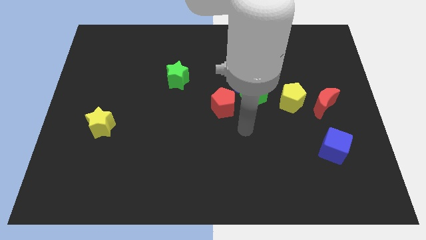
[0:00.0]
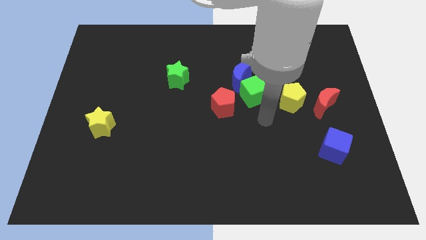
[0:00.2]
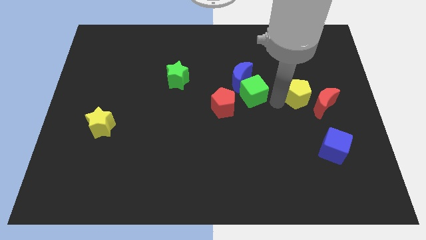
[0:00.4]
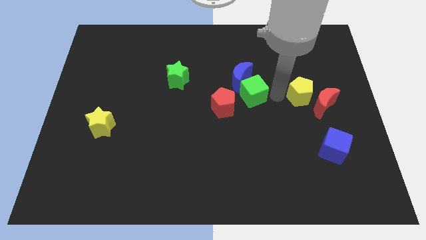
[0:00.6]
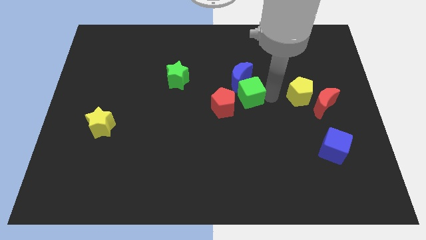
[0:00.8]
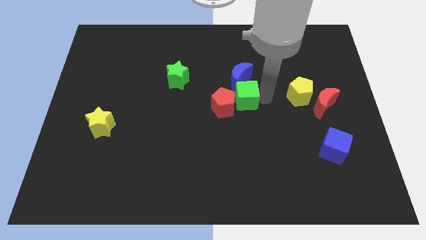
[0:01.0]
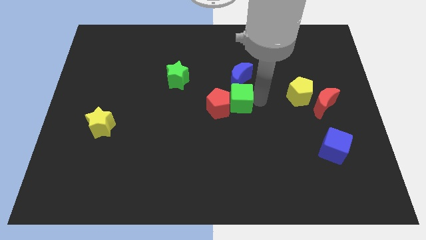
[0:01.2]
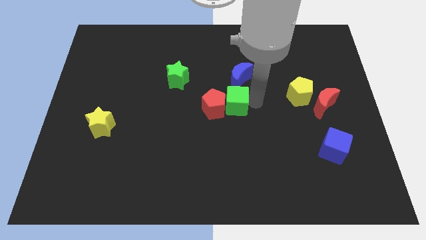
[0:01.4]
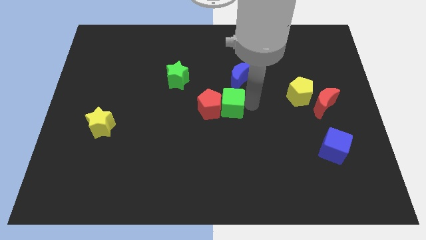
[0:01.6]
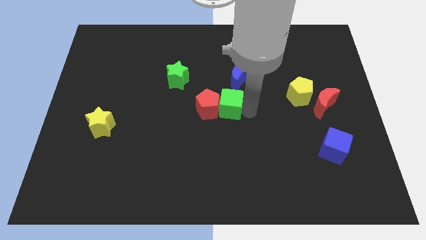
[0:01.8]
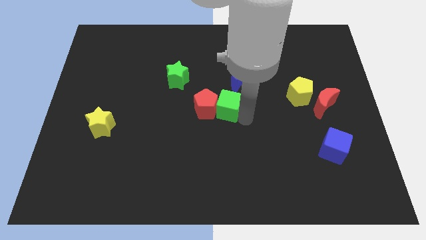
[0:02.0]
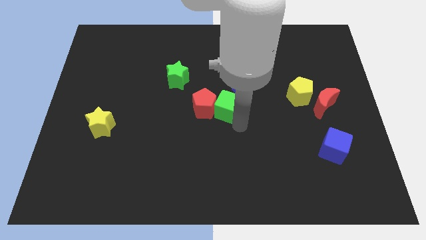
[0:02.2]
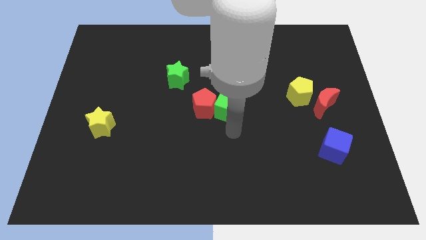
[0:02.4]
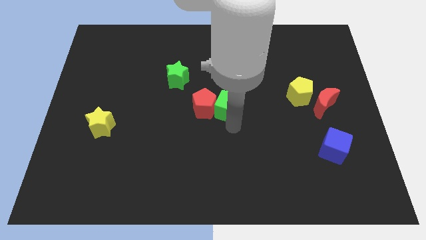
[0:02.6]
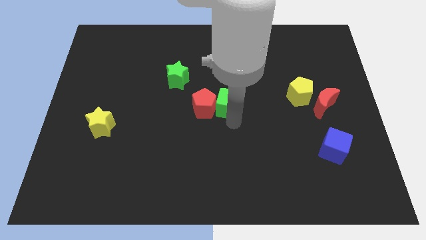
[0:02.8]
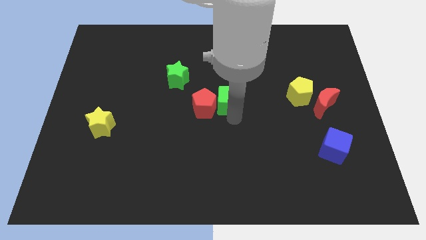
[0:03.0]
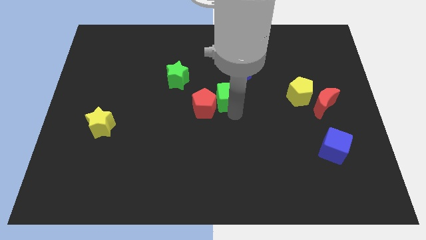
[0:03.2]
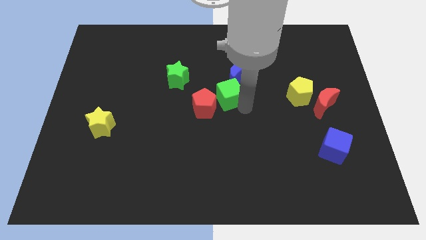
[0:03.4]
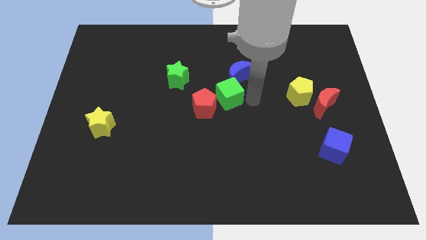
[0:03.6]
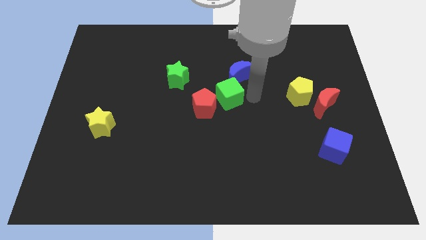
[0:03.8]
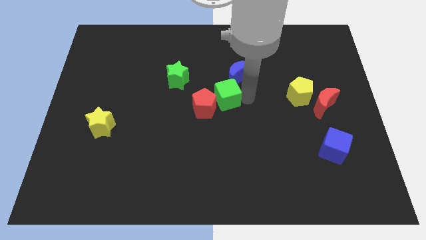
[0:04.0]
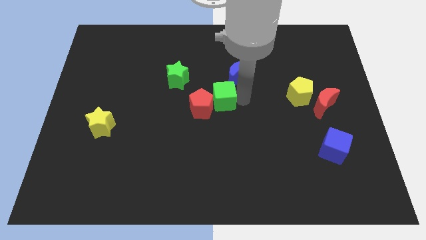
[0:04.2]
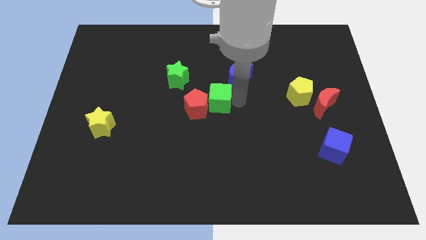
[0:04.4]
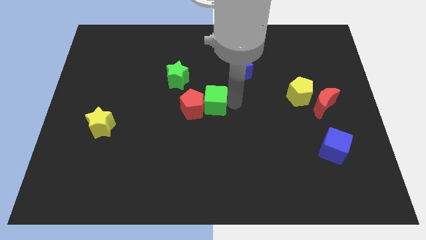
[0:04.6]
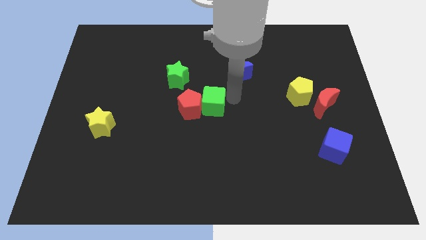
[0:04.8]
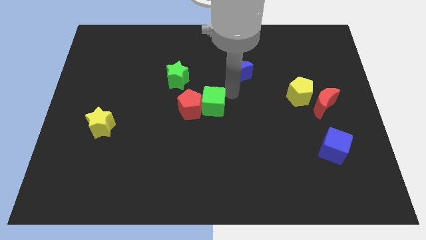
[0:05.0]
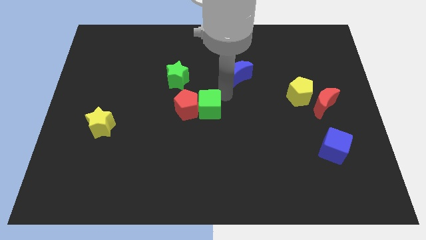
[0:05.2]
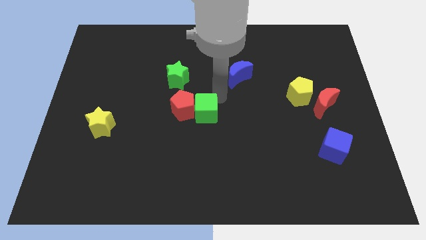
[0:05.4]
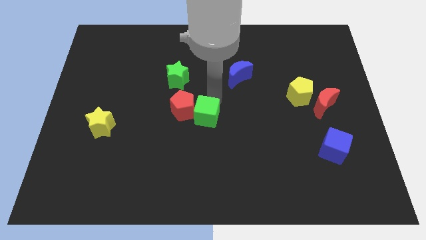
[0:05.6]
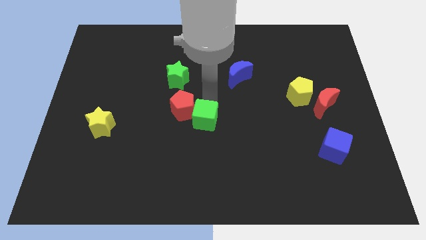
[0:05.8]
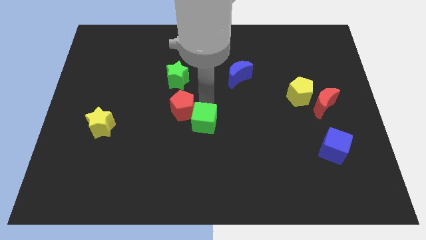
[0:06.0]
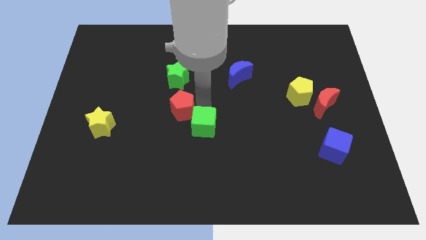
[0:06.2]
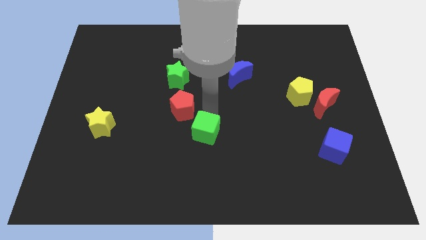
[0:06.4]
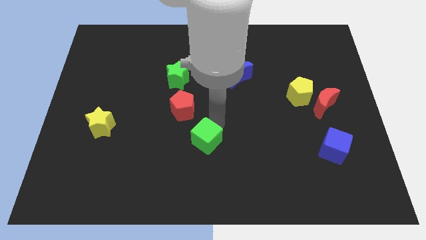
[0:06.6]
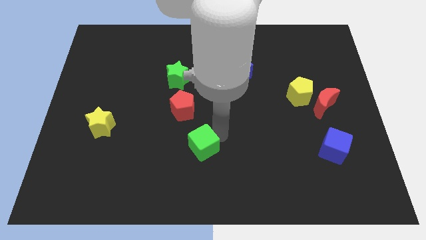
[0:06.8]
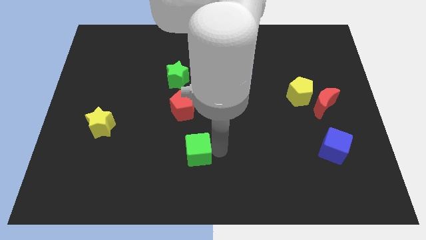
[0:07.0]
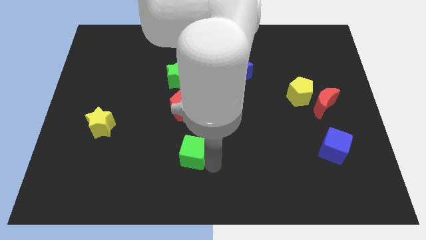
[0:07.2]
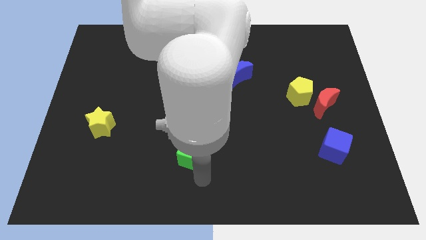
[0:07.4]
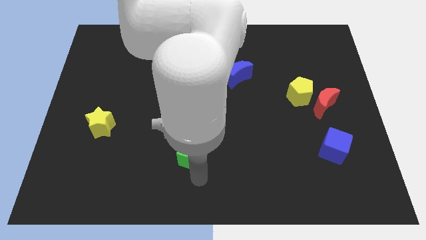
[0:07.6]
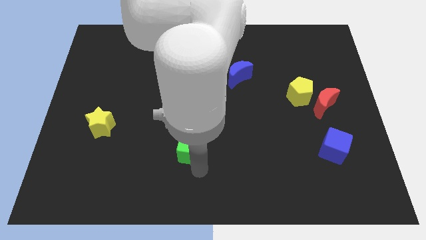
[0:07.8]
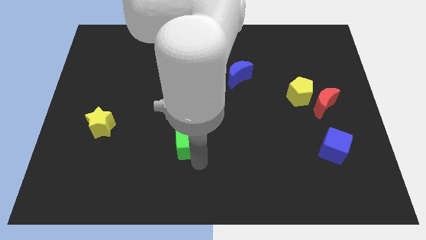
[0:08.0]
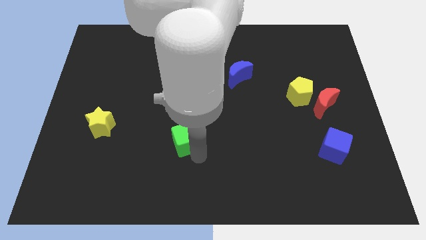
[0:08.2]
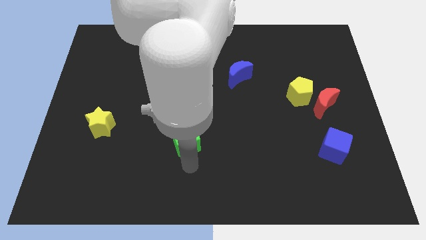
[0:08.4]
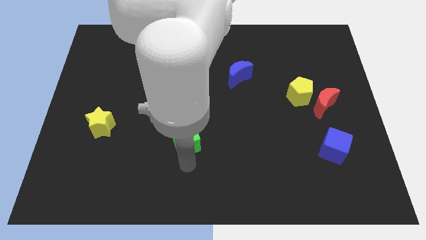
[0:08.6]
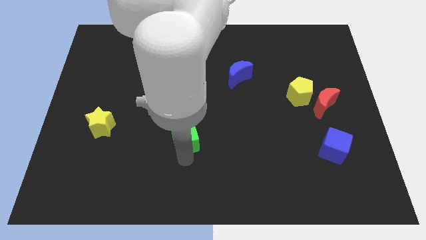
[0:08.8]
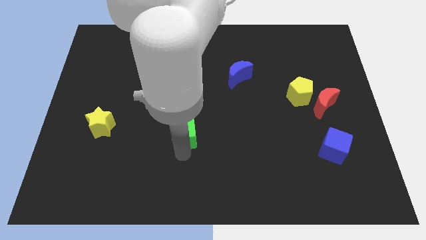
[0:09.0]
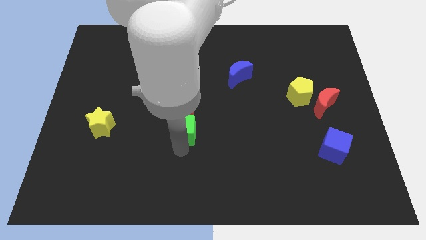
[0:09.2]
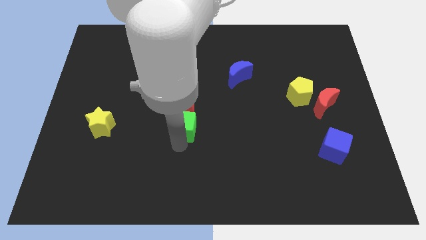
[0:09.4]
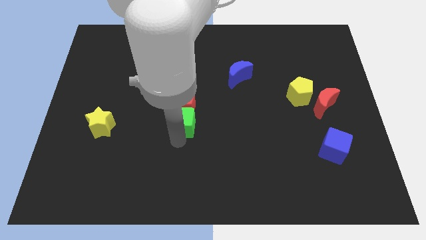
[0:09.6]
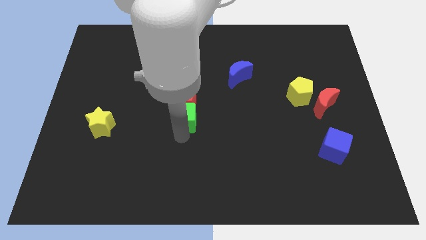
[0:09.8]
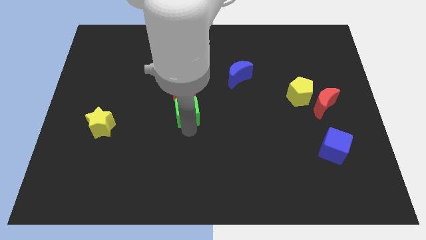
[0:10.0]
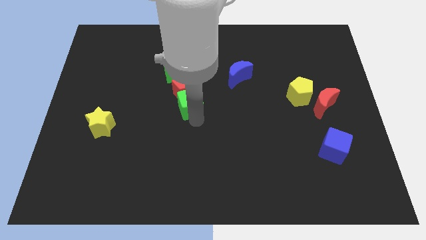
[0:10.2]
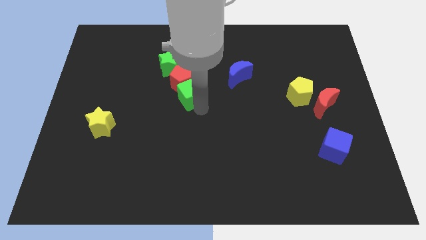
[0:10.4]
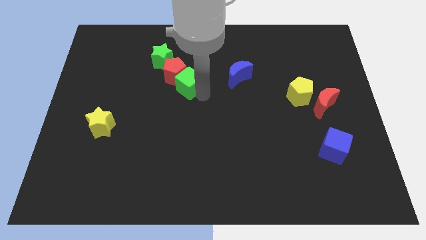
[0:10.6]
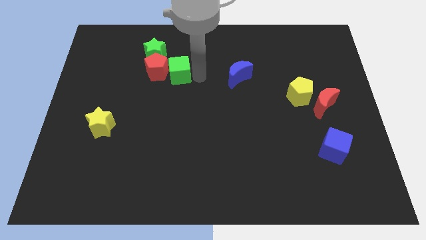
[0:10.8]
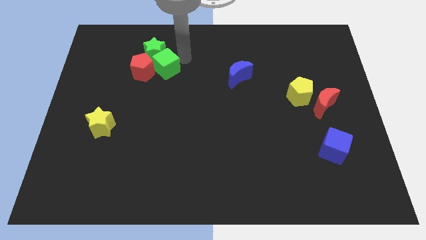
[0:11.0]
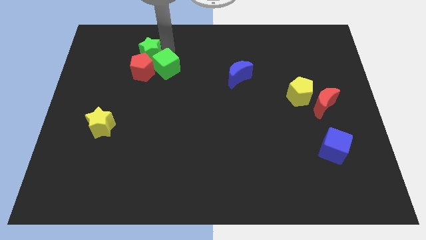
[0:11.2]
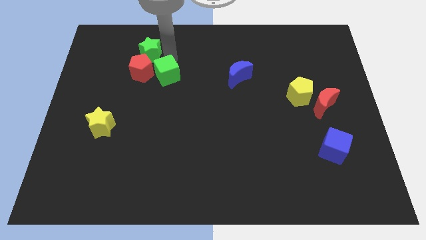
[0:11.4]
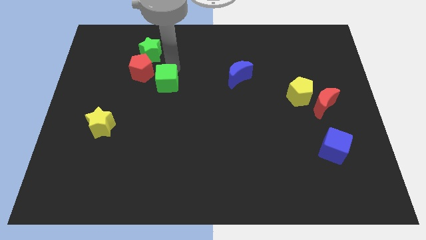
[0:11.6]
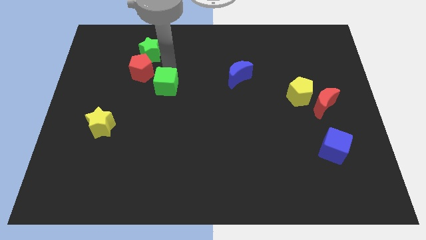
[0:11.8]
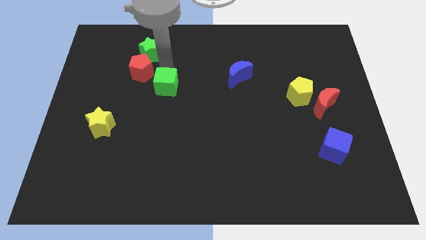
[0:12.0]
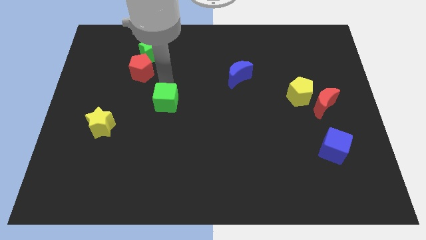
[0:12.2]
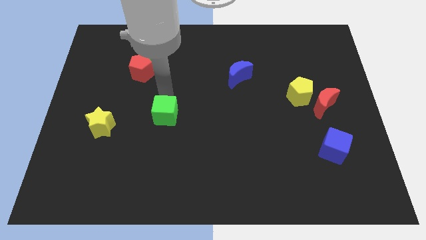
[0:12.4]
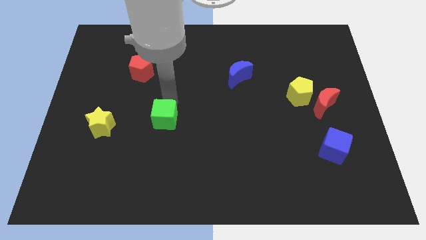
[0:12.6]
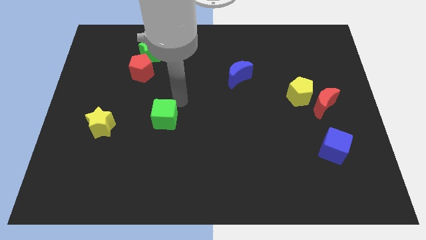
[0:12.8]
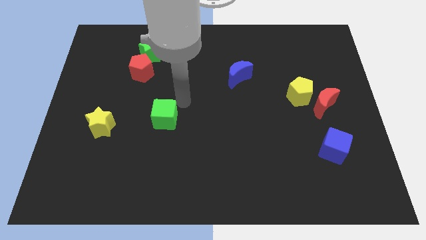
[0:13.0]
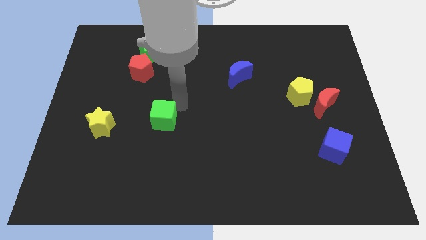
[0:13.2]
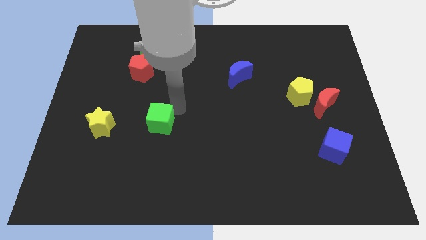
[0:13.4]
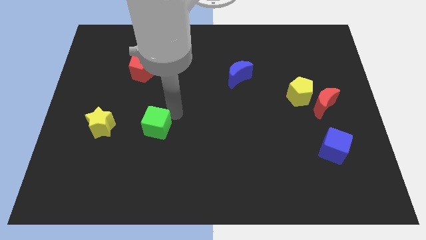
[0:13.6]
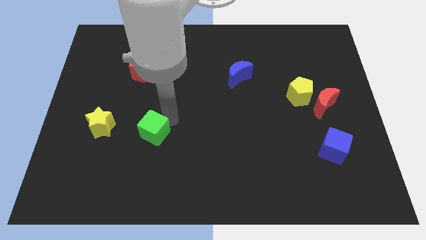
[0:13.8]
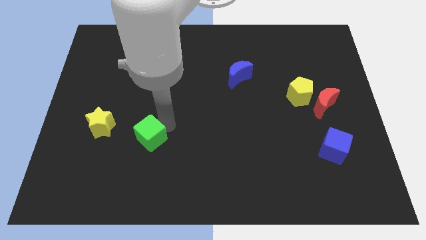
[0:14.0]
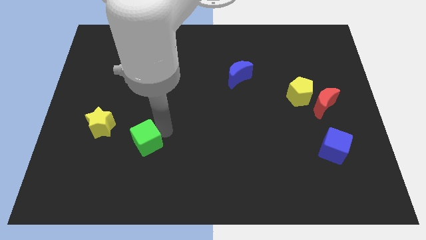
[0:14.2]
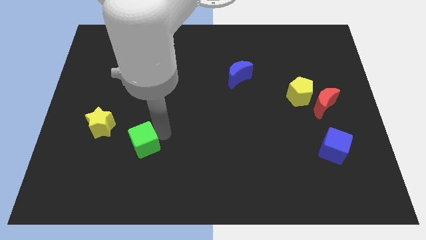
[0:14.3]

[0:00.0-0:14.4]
put the green cube diagonally down and to the right of the yellow star
